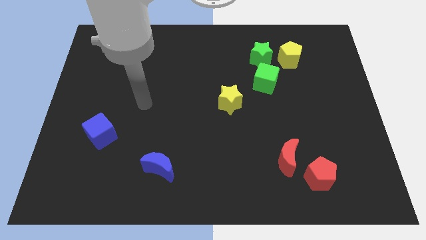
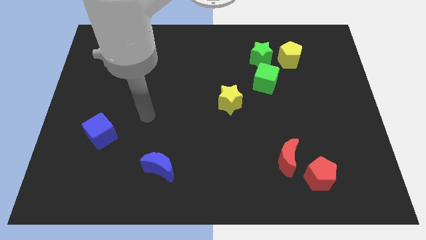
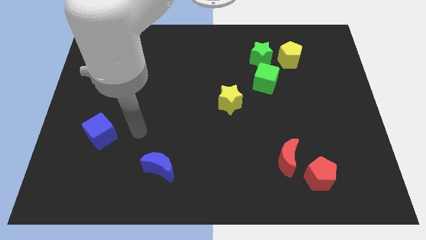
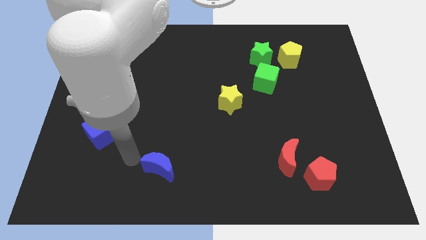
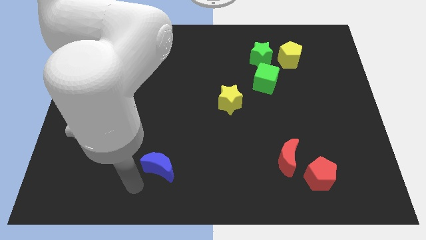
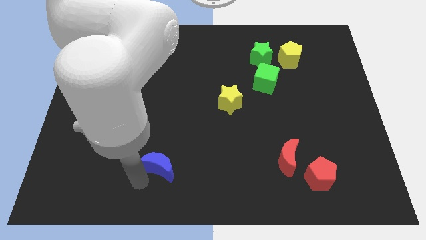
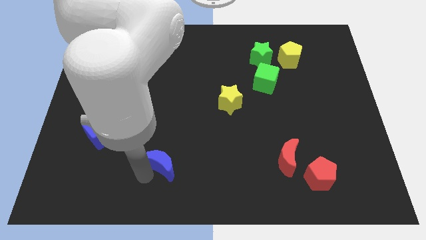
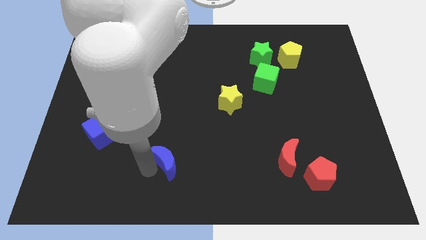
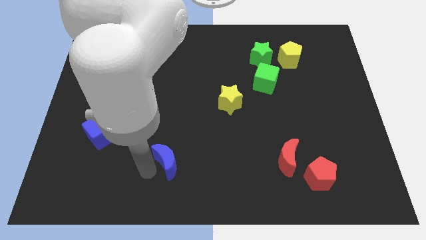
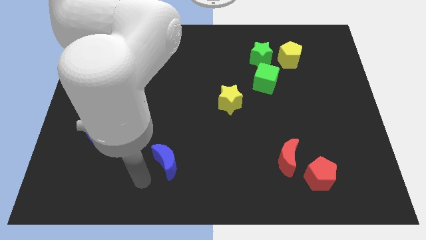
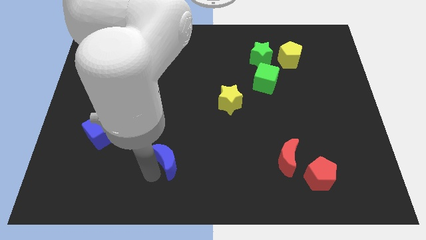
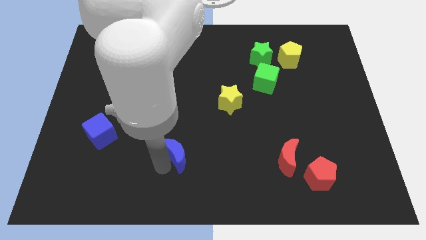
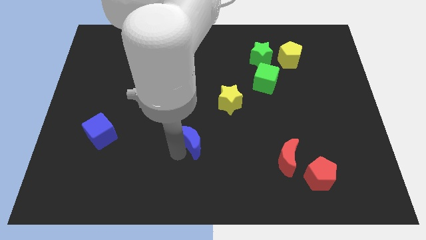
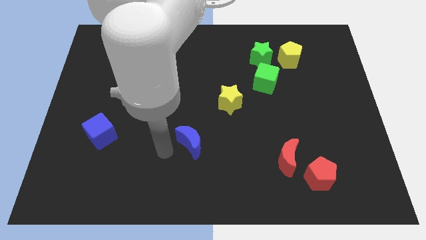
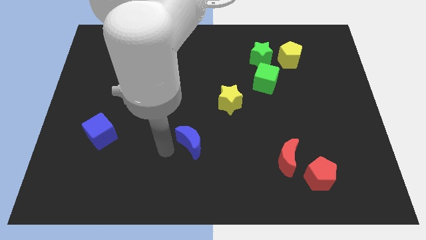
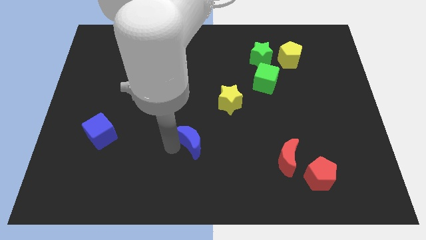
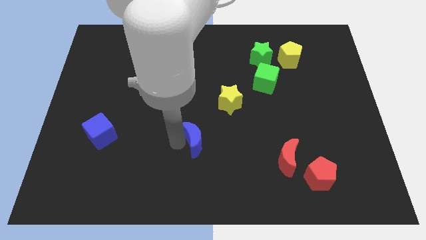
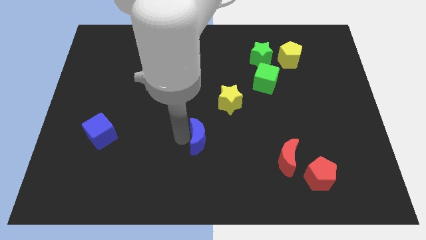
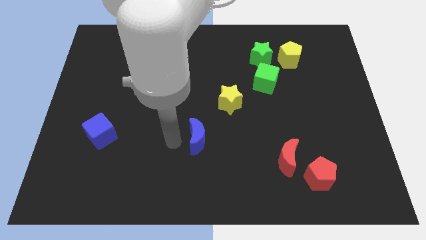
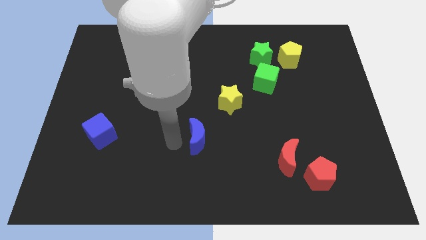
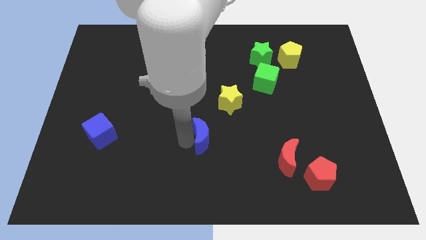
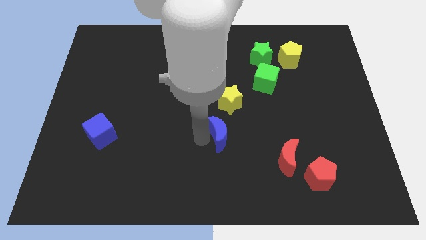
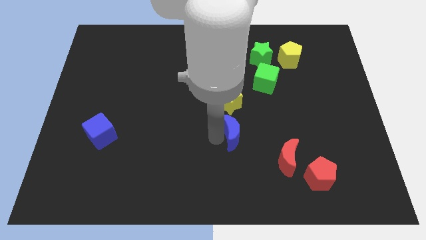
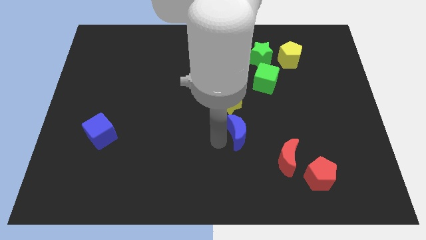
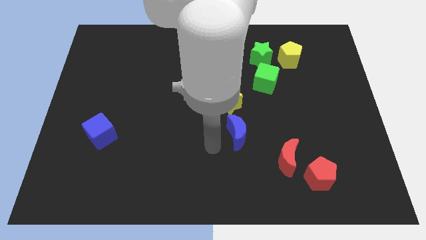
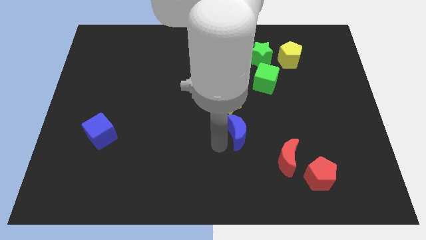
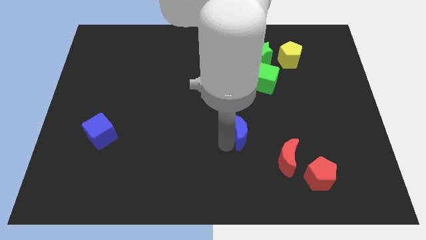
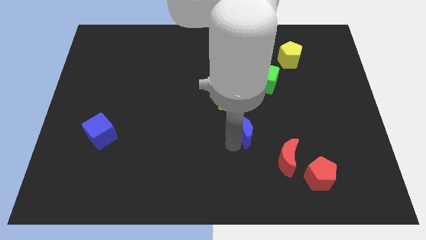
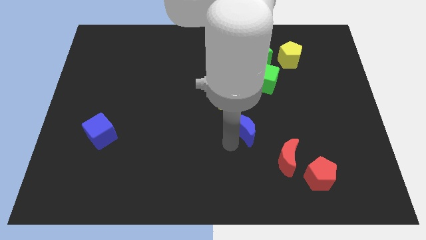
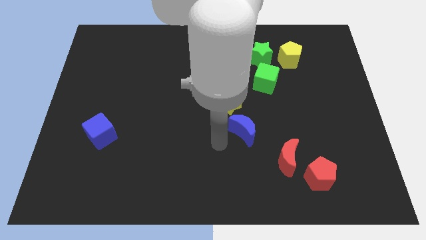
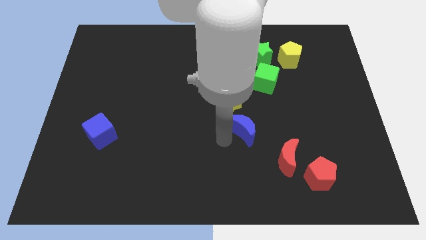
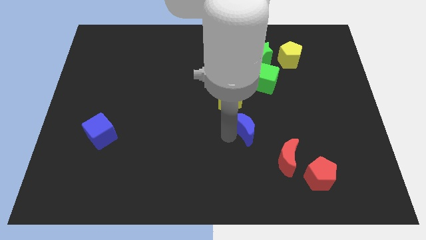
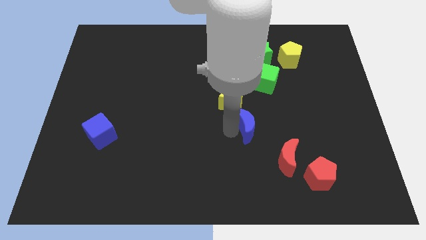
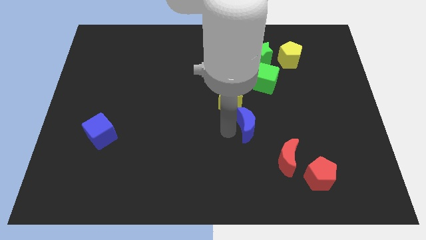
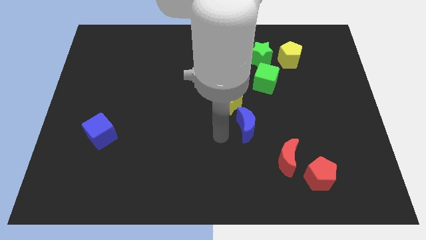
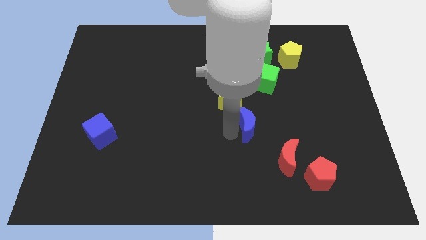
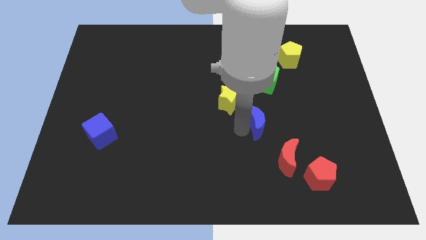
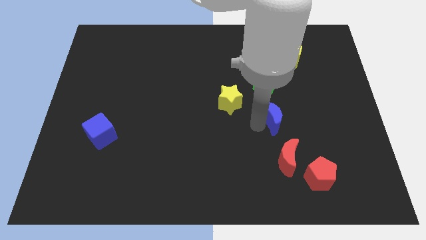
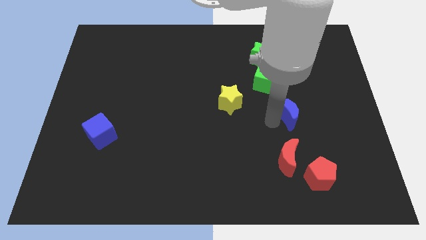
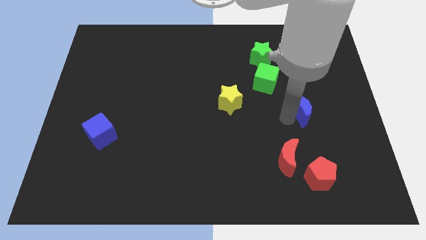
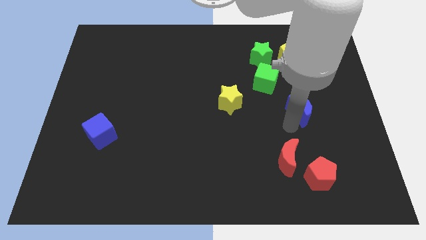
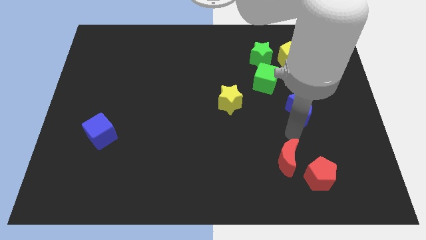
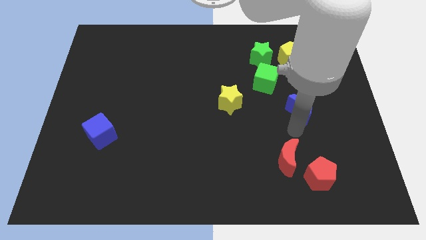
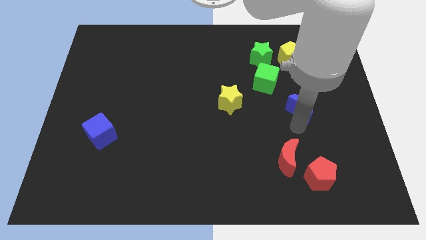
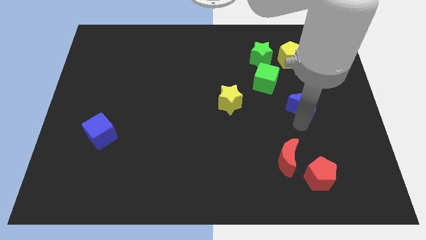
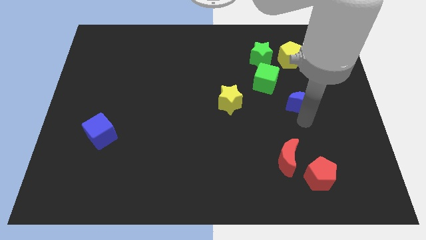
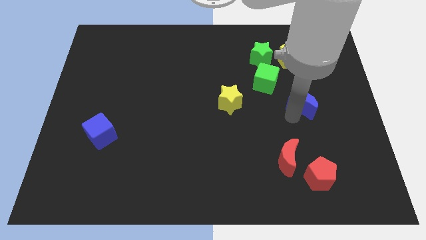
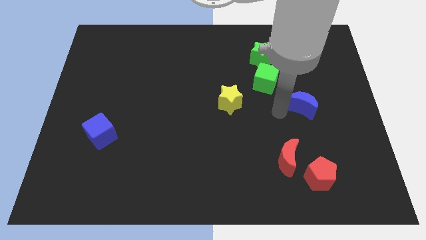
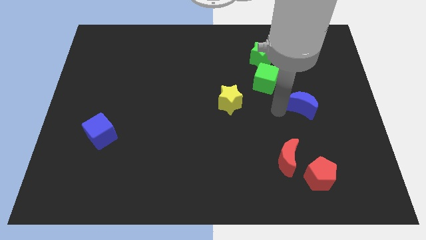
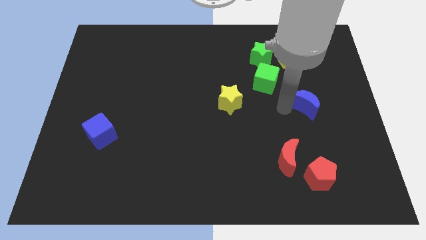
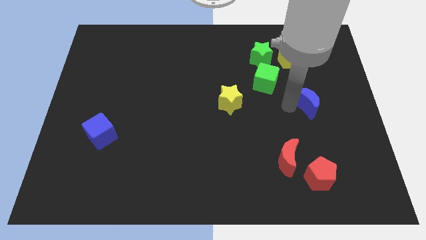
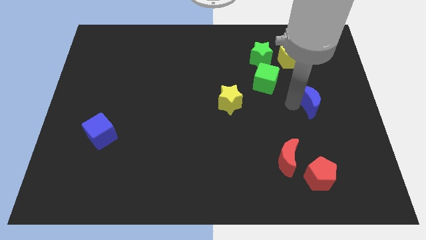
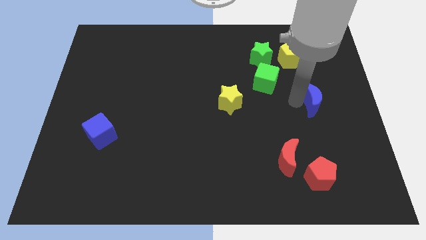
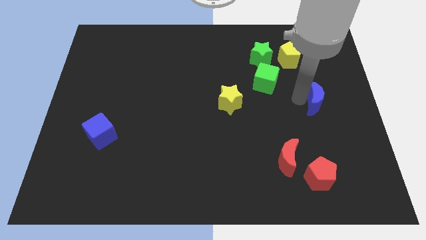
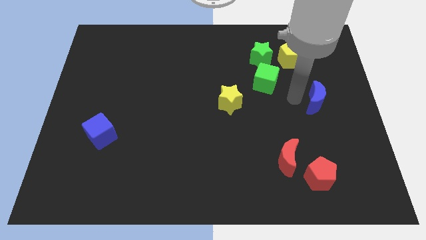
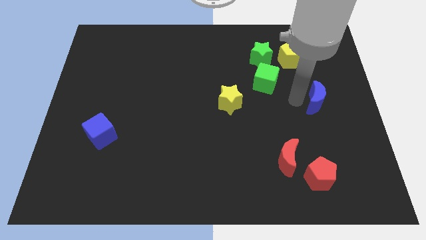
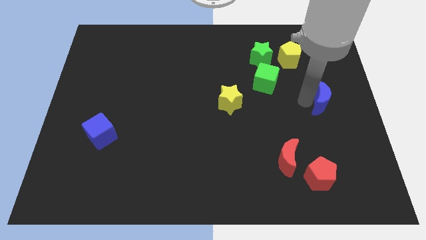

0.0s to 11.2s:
move the blue moon to the right side

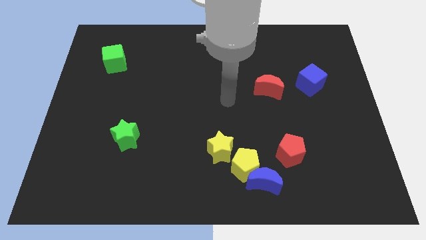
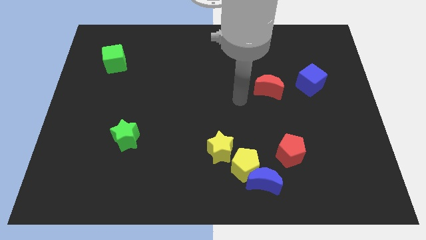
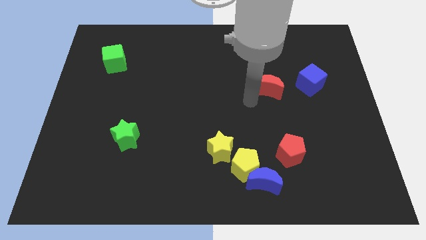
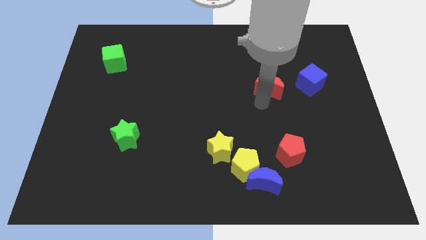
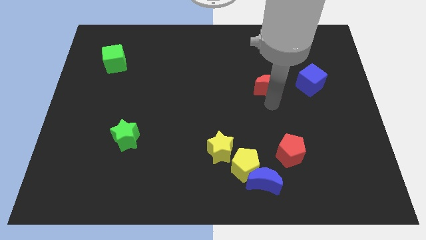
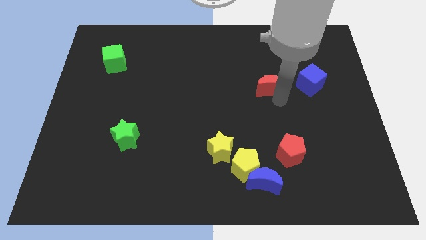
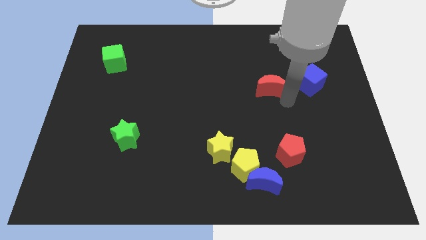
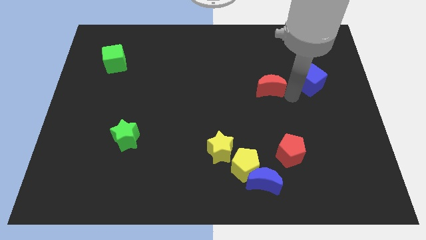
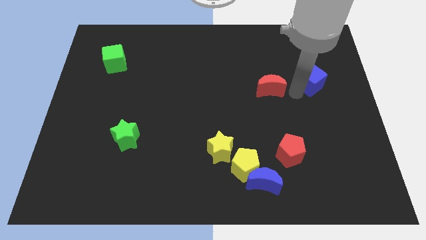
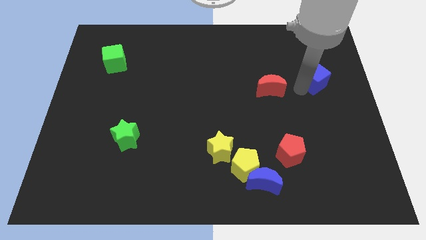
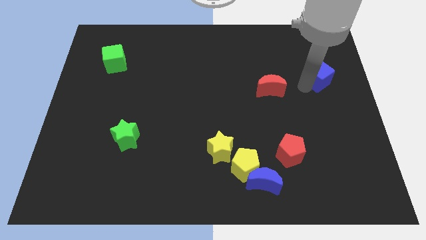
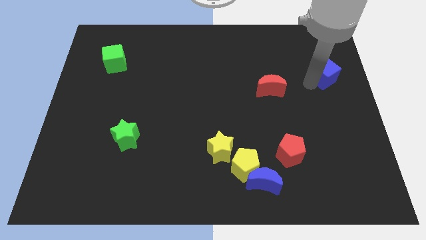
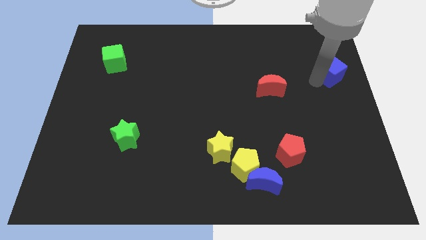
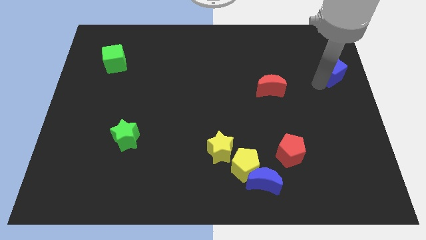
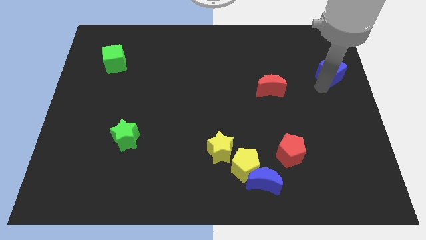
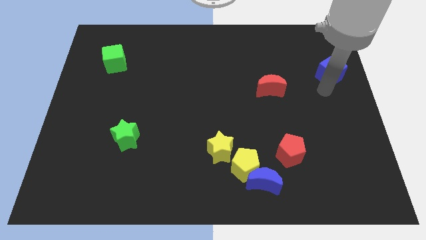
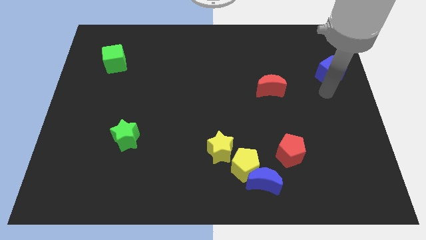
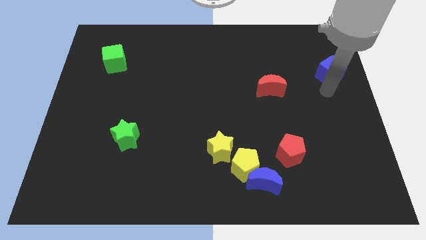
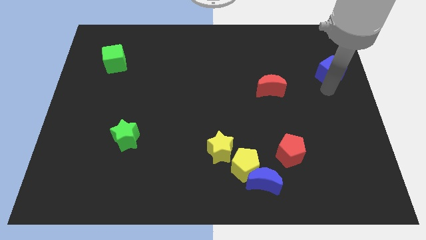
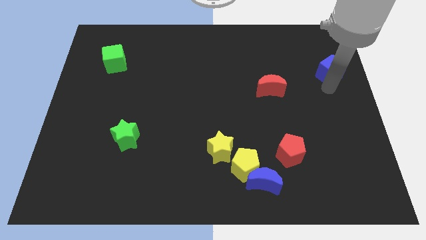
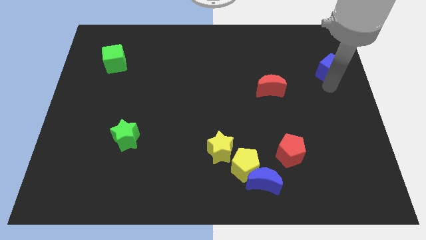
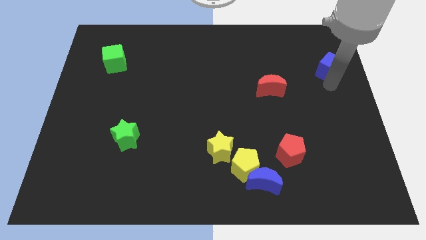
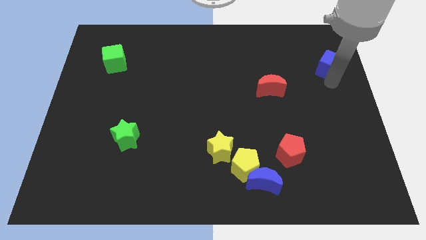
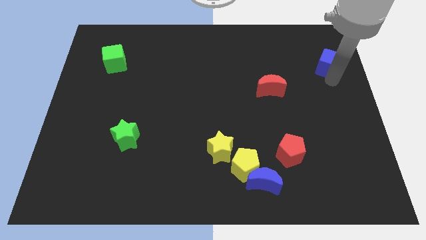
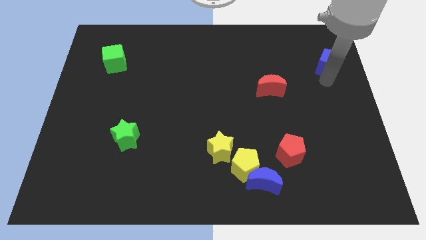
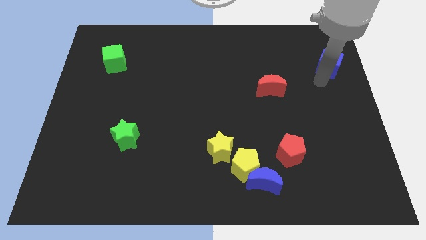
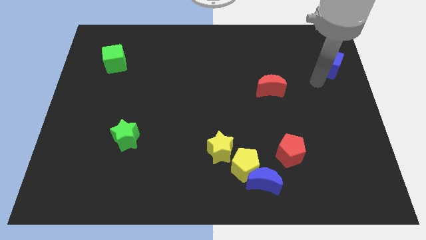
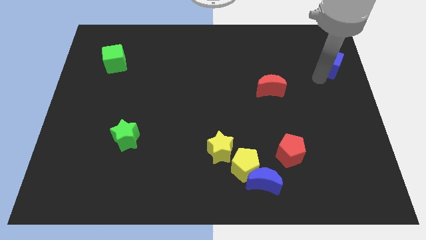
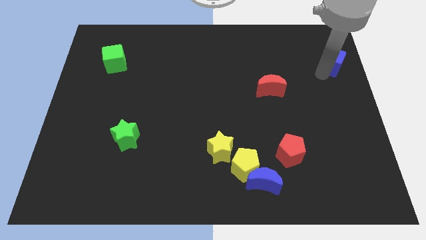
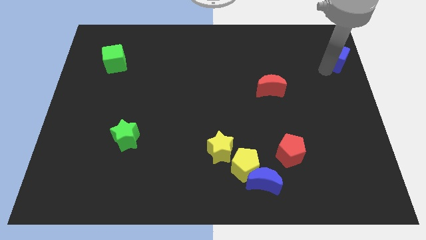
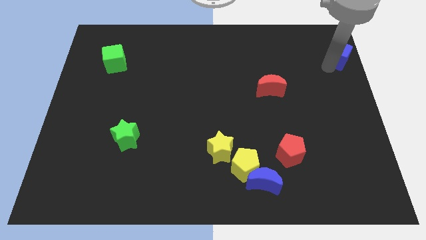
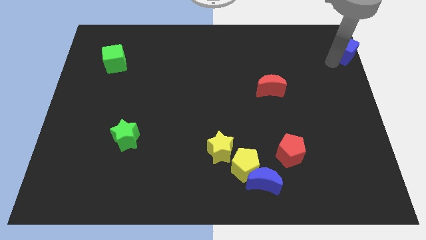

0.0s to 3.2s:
put the blue cube to the top right corner
